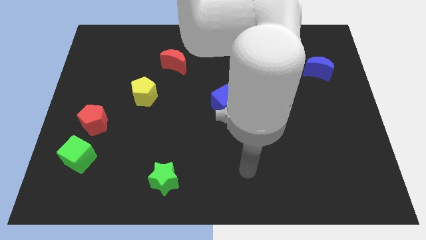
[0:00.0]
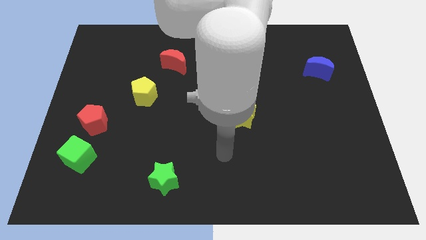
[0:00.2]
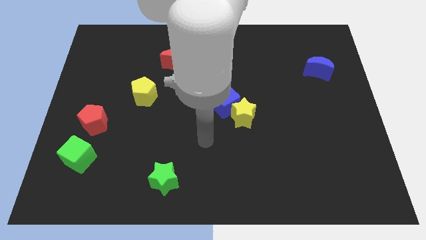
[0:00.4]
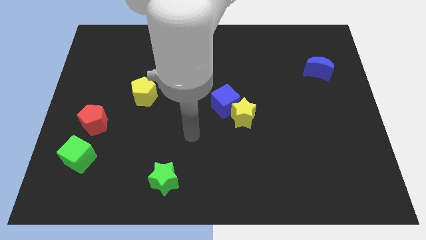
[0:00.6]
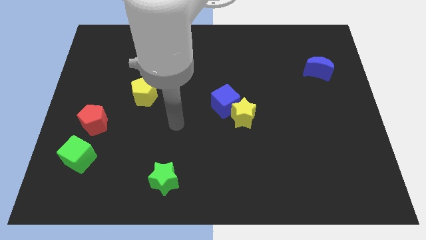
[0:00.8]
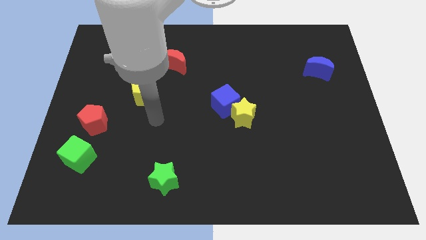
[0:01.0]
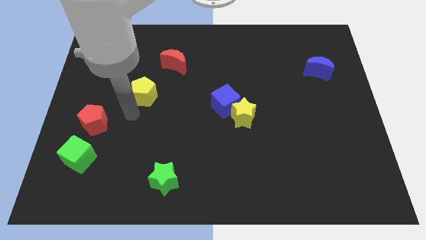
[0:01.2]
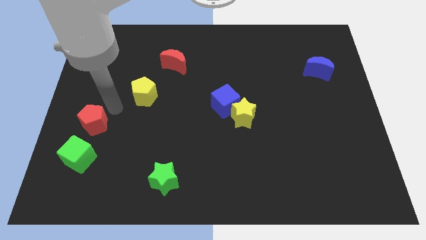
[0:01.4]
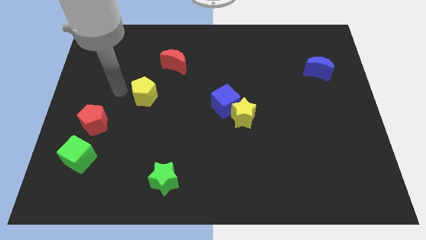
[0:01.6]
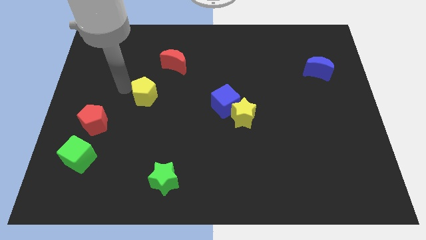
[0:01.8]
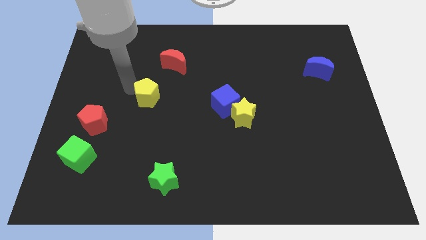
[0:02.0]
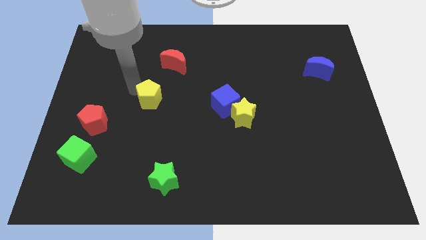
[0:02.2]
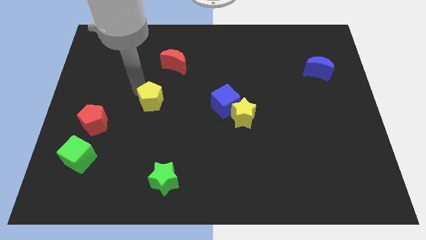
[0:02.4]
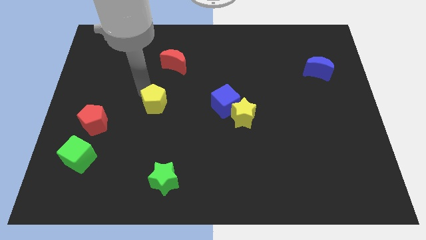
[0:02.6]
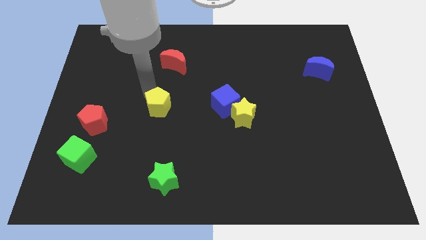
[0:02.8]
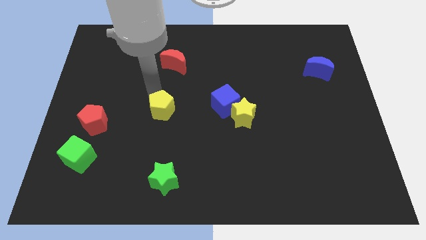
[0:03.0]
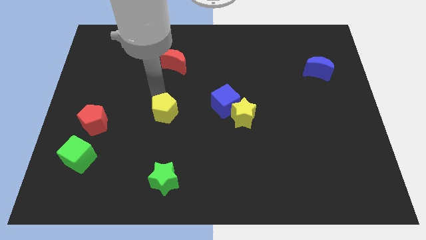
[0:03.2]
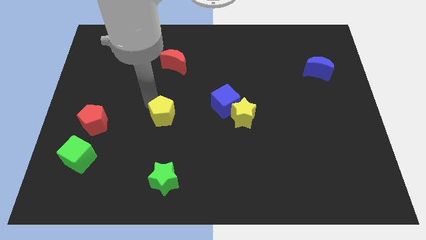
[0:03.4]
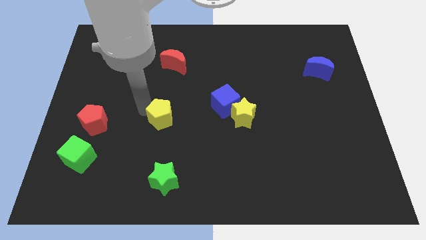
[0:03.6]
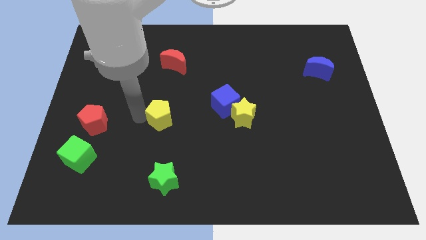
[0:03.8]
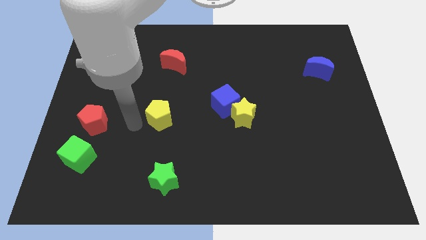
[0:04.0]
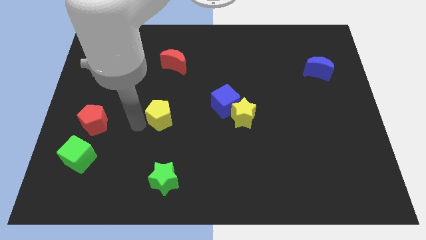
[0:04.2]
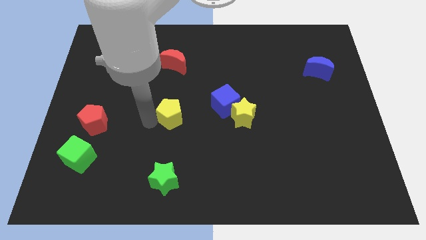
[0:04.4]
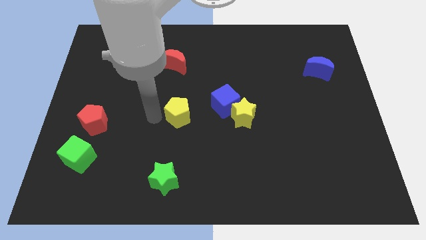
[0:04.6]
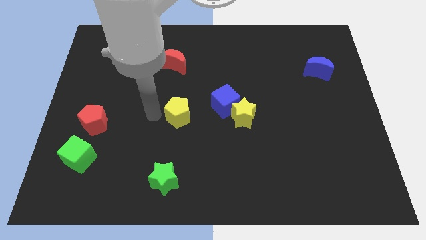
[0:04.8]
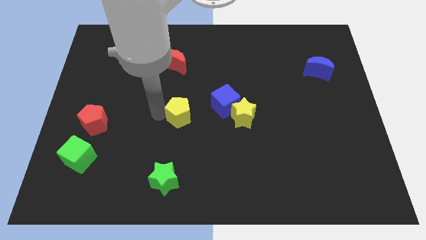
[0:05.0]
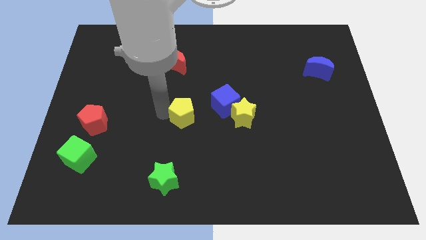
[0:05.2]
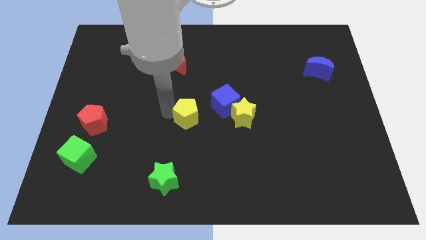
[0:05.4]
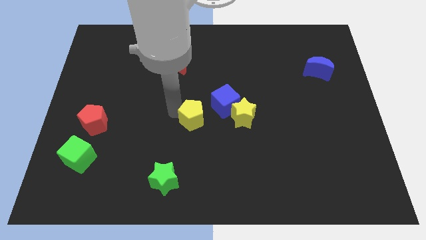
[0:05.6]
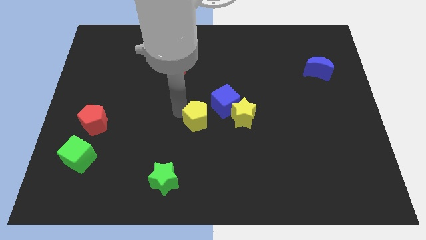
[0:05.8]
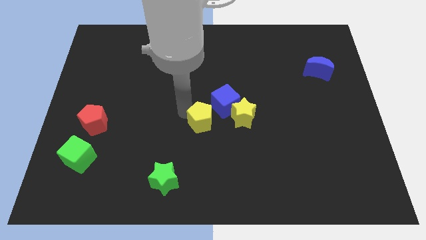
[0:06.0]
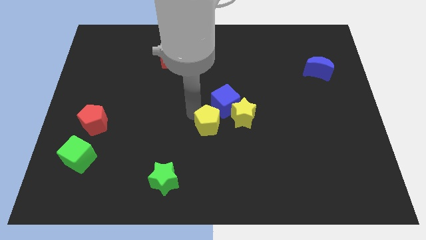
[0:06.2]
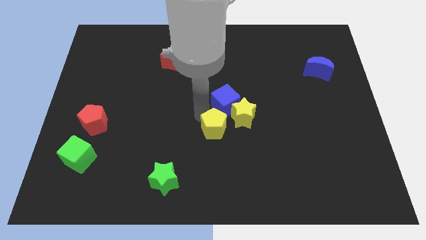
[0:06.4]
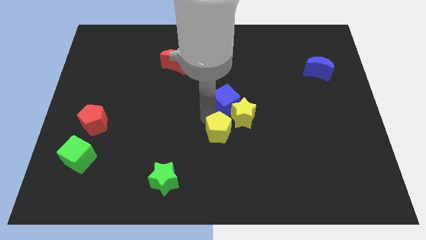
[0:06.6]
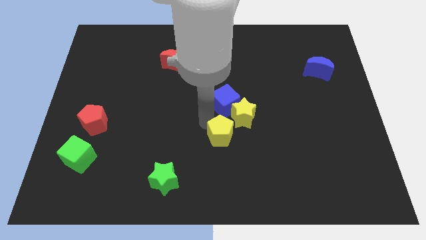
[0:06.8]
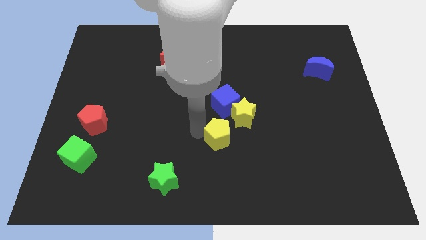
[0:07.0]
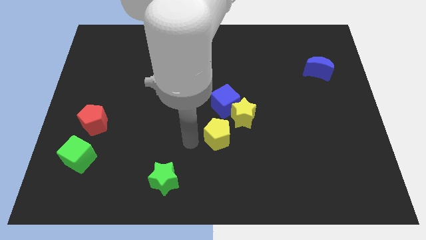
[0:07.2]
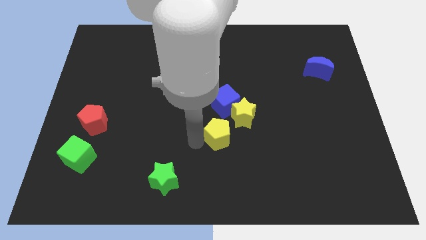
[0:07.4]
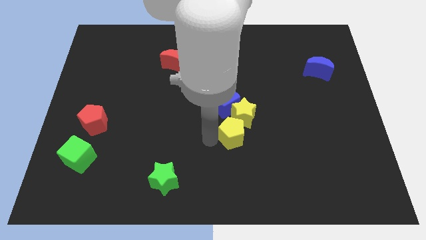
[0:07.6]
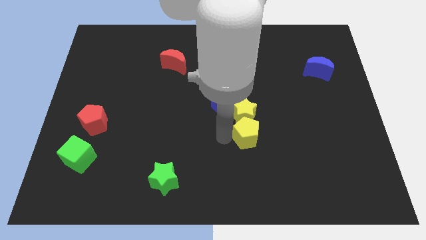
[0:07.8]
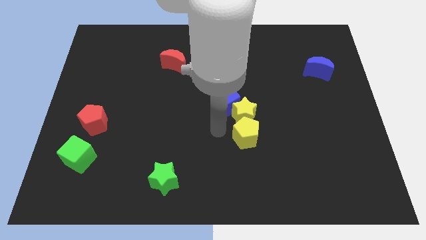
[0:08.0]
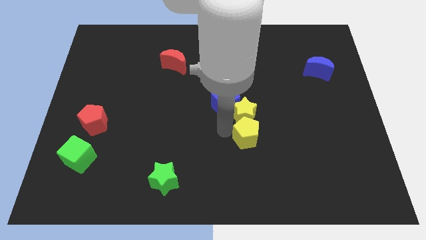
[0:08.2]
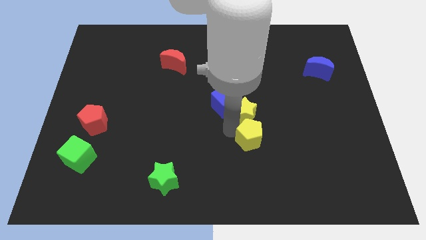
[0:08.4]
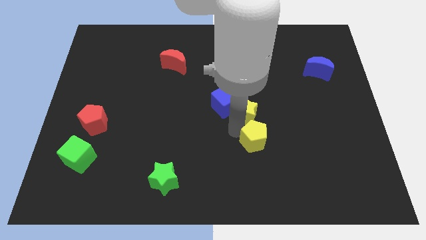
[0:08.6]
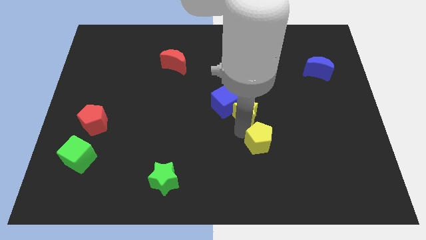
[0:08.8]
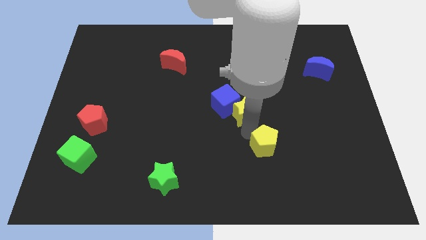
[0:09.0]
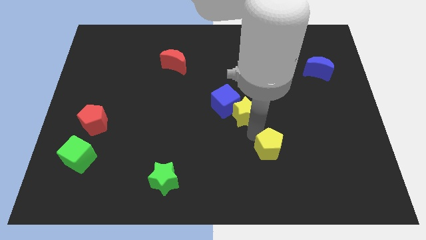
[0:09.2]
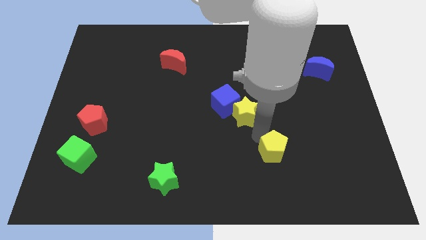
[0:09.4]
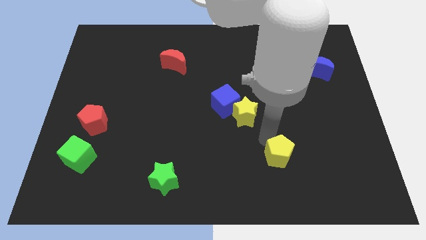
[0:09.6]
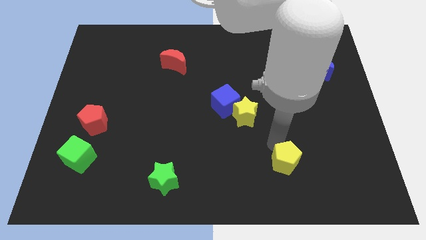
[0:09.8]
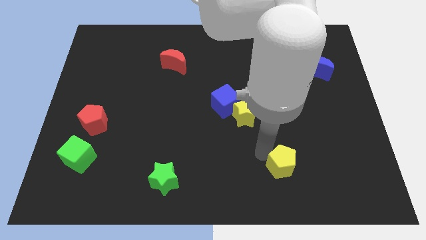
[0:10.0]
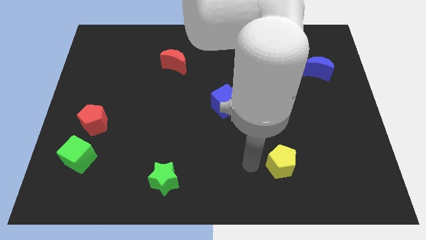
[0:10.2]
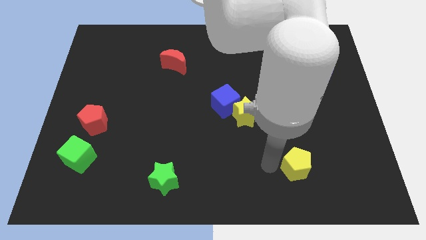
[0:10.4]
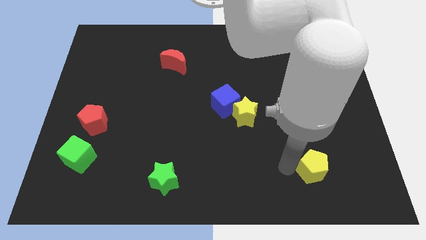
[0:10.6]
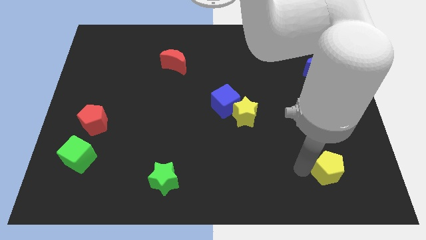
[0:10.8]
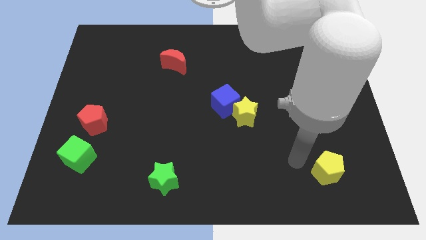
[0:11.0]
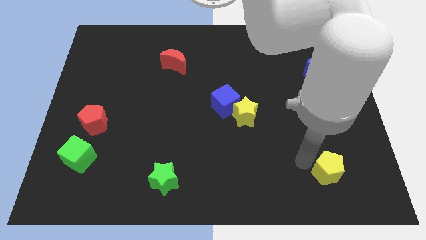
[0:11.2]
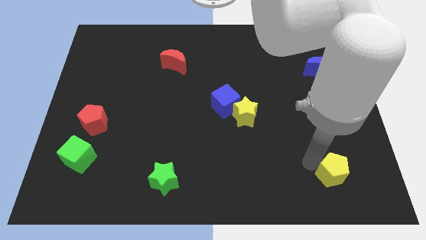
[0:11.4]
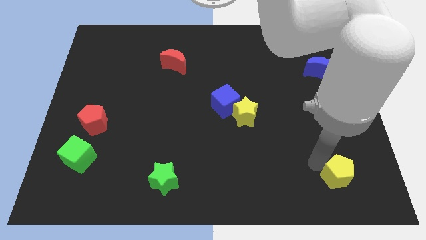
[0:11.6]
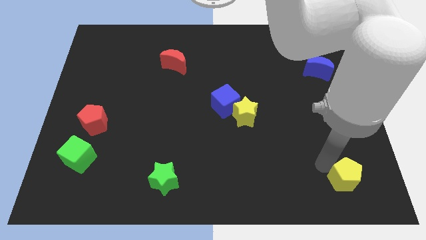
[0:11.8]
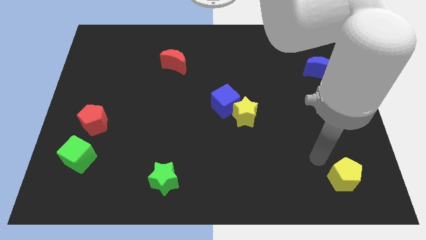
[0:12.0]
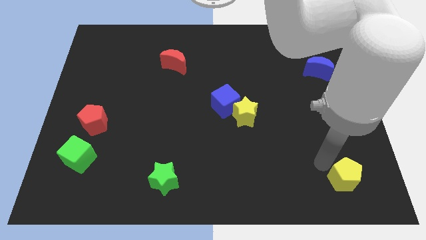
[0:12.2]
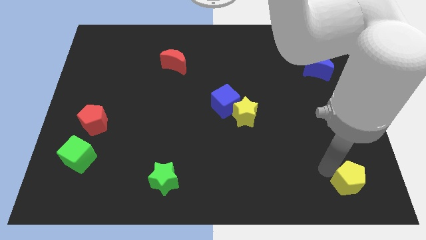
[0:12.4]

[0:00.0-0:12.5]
slide the yellow pentagon to the lower right corner
